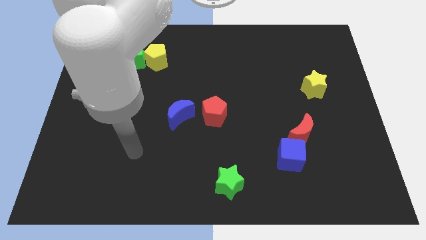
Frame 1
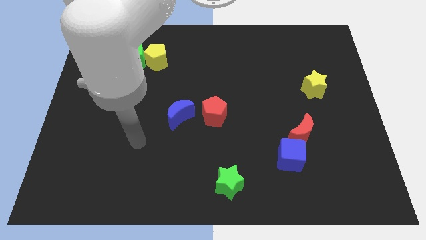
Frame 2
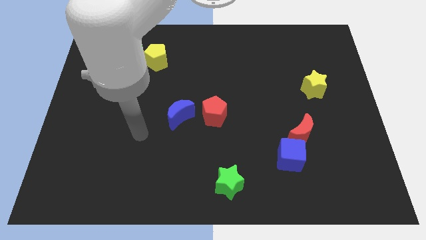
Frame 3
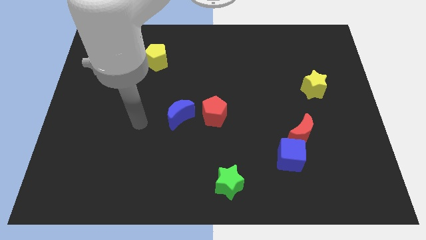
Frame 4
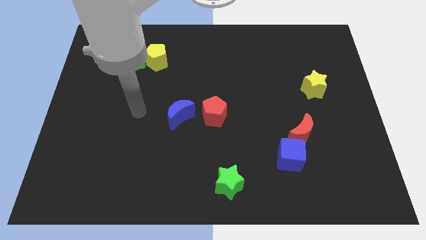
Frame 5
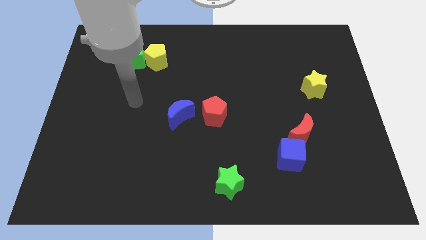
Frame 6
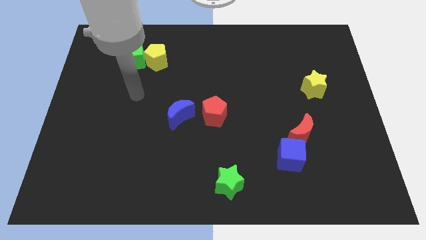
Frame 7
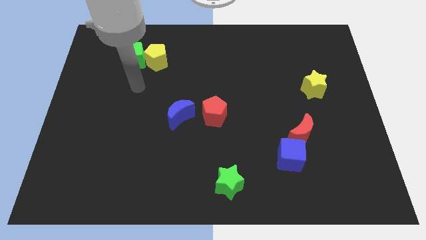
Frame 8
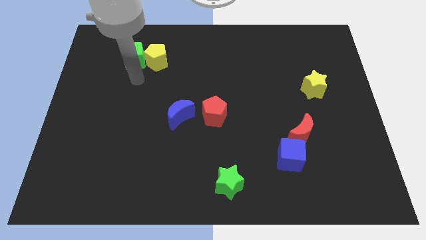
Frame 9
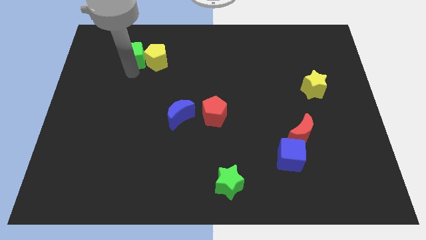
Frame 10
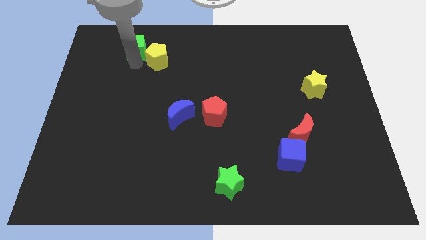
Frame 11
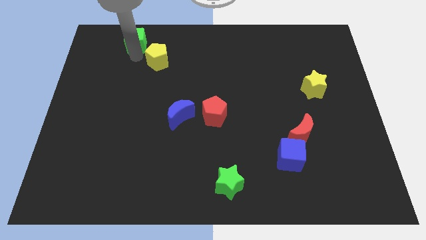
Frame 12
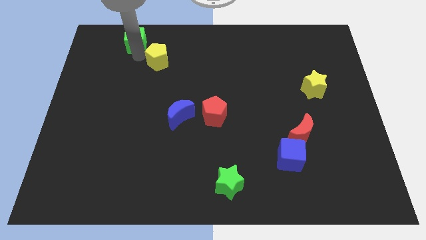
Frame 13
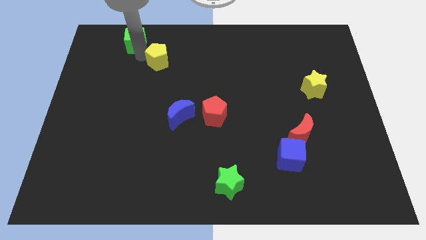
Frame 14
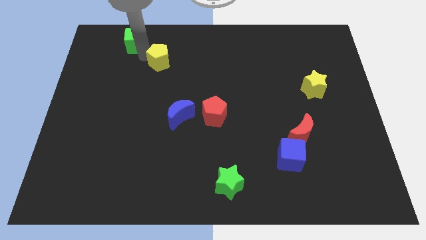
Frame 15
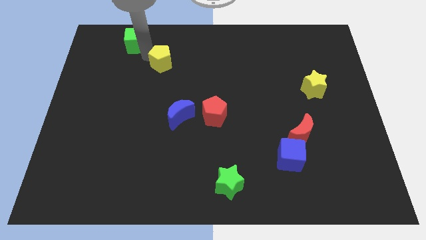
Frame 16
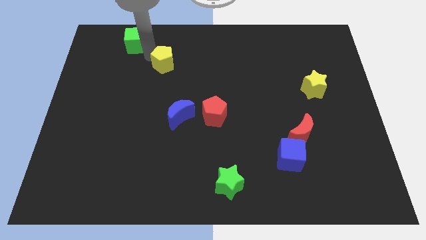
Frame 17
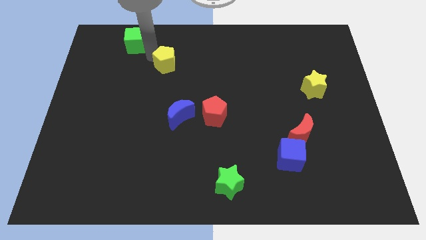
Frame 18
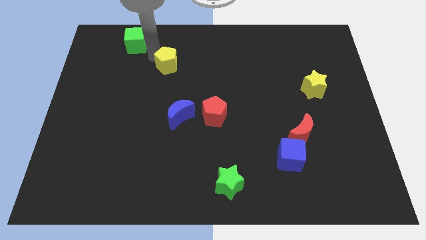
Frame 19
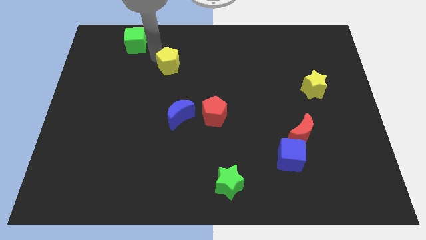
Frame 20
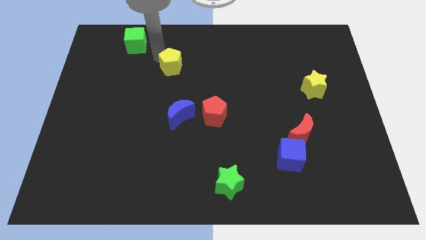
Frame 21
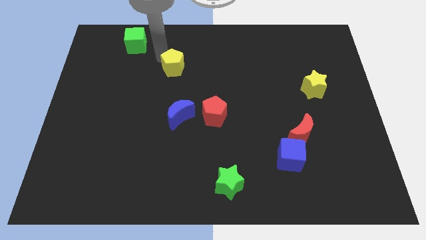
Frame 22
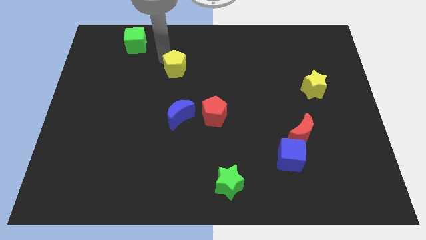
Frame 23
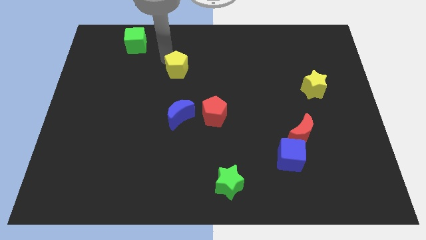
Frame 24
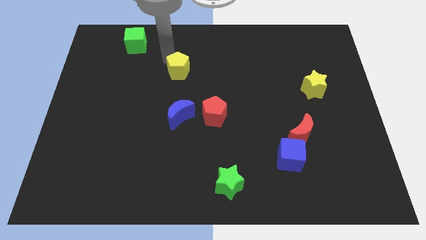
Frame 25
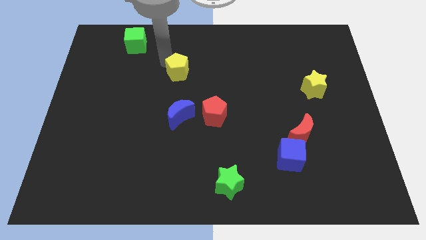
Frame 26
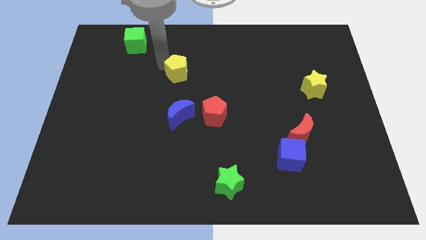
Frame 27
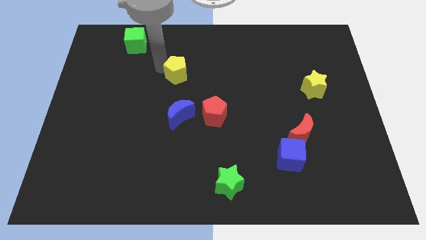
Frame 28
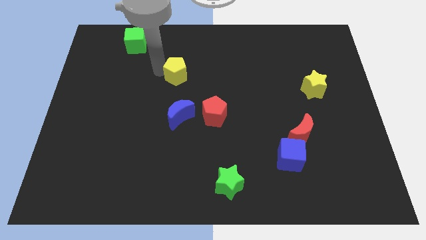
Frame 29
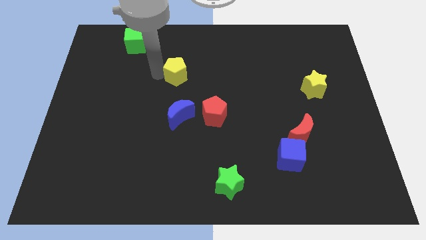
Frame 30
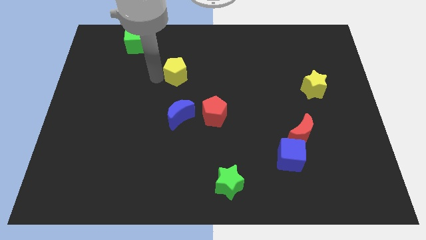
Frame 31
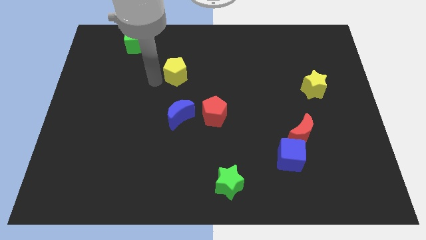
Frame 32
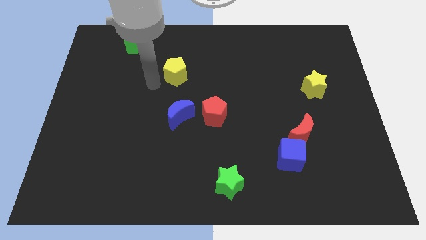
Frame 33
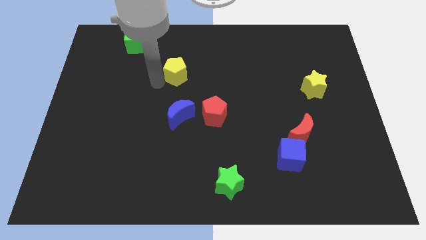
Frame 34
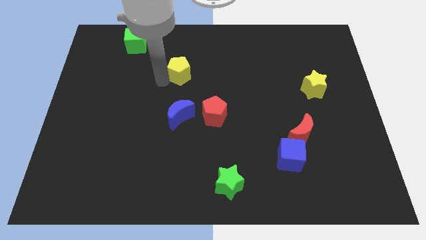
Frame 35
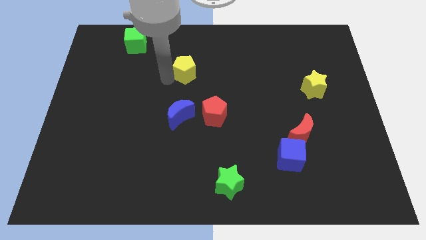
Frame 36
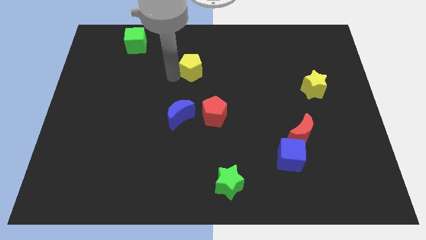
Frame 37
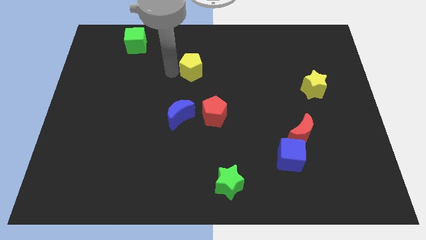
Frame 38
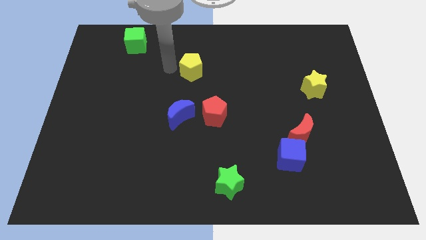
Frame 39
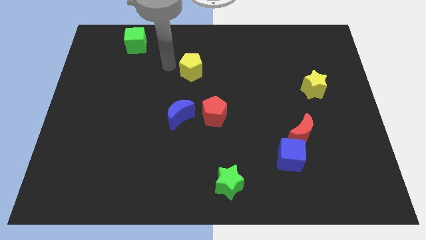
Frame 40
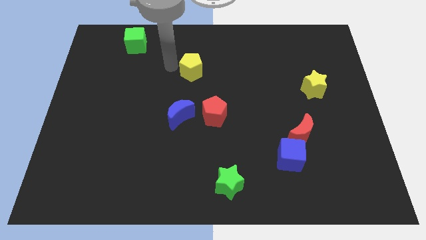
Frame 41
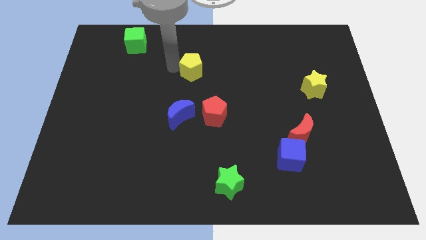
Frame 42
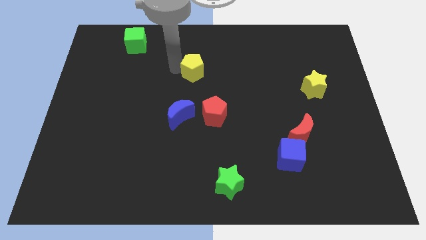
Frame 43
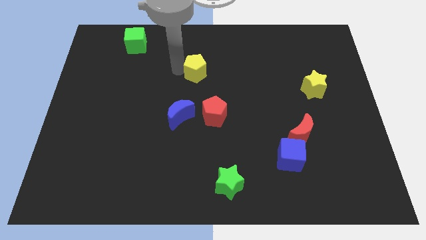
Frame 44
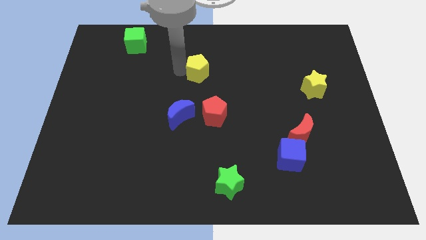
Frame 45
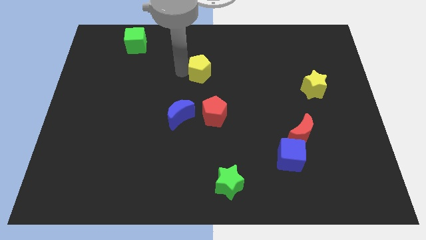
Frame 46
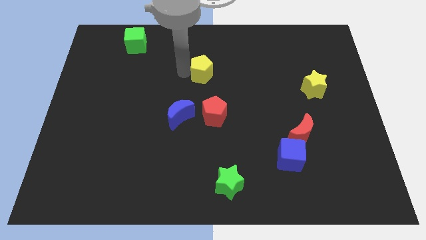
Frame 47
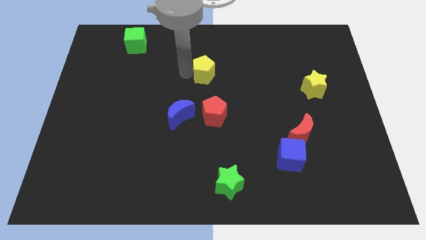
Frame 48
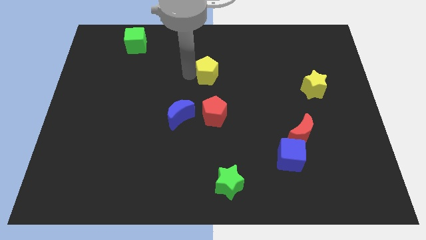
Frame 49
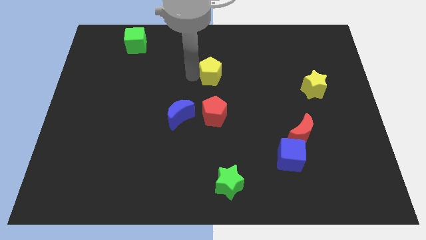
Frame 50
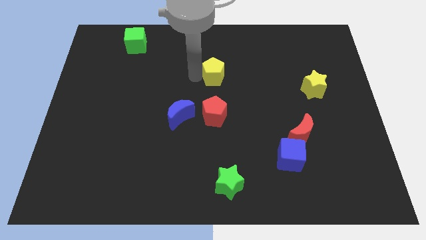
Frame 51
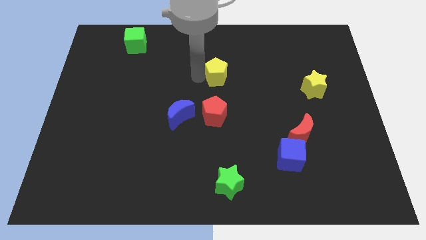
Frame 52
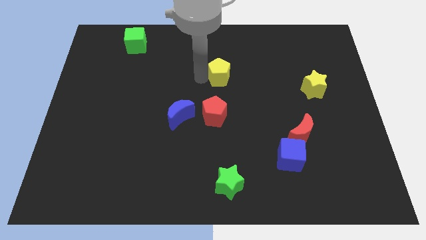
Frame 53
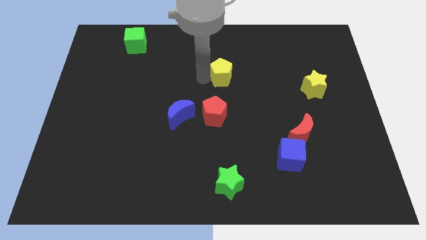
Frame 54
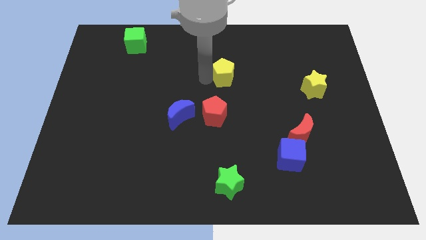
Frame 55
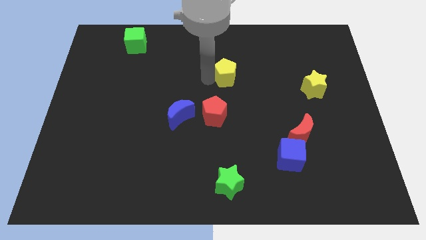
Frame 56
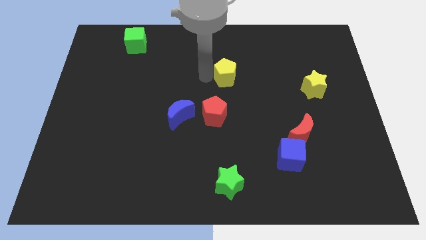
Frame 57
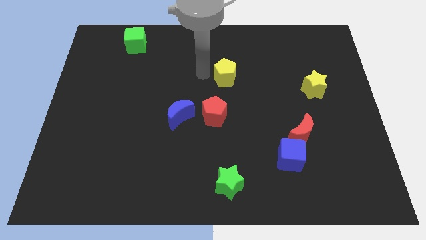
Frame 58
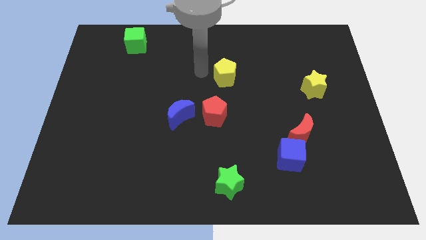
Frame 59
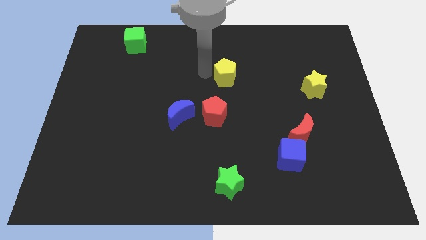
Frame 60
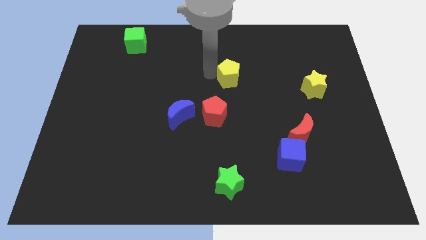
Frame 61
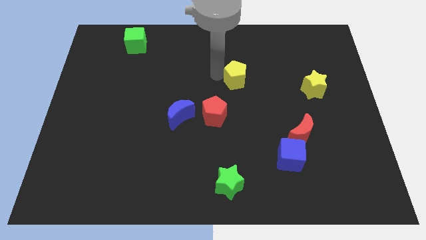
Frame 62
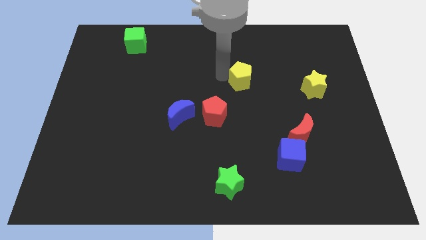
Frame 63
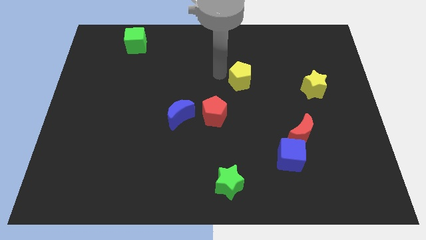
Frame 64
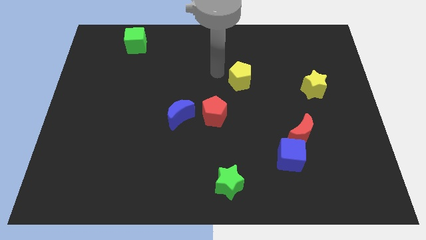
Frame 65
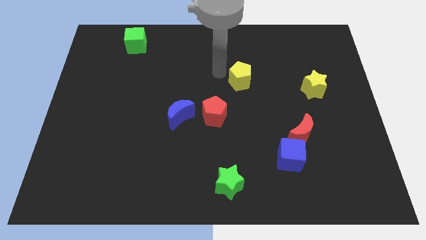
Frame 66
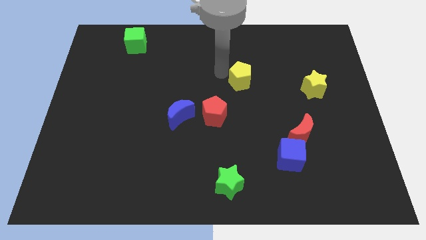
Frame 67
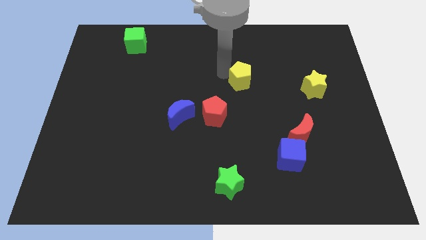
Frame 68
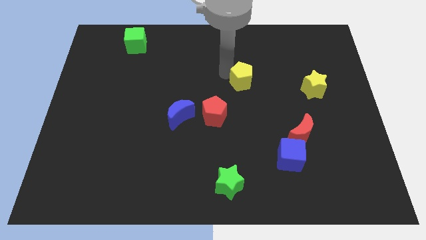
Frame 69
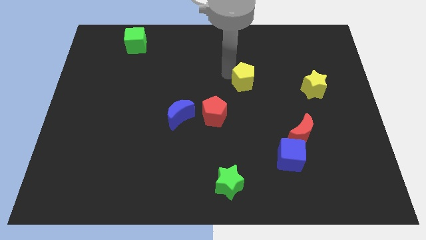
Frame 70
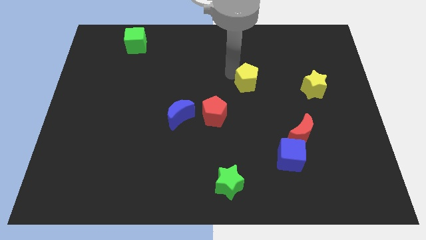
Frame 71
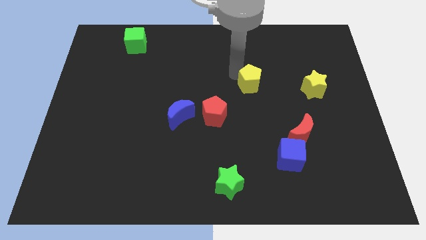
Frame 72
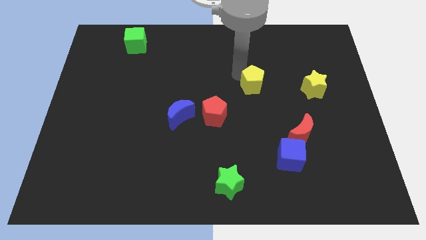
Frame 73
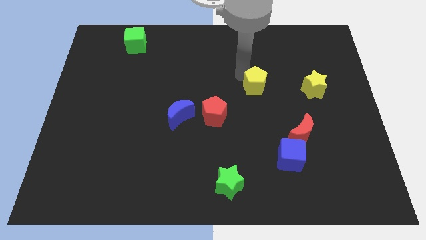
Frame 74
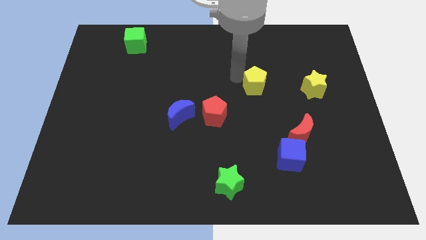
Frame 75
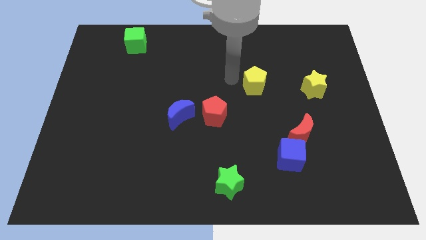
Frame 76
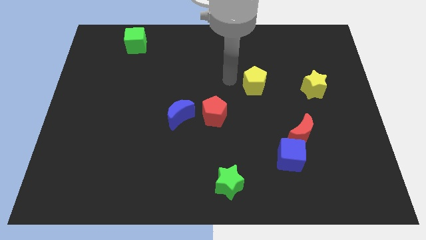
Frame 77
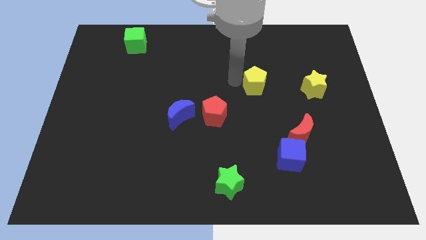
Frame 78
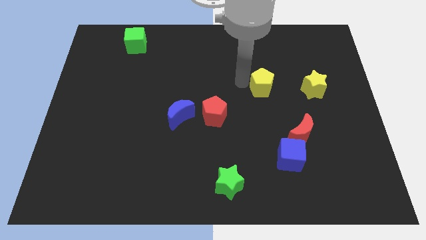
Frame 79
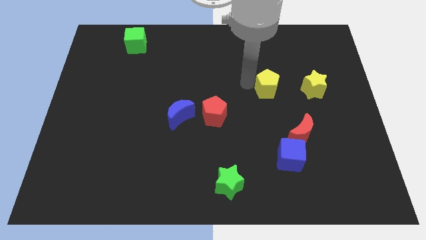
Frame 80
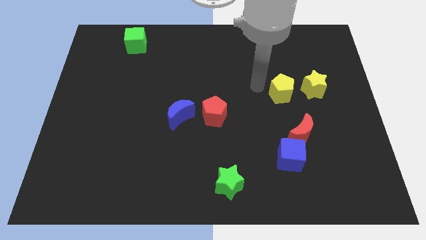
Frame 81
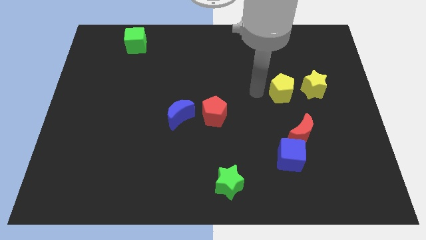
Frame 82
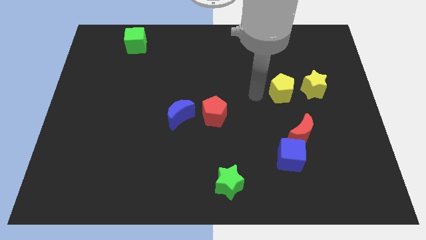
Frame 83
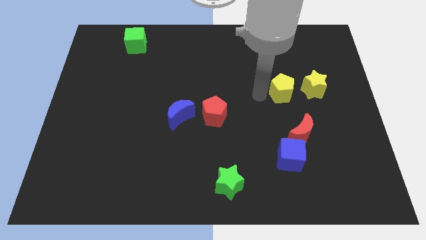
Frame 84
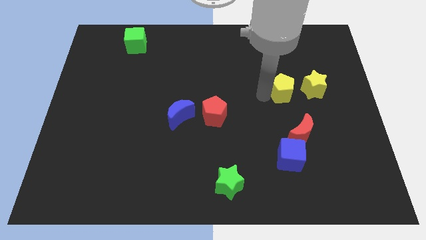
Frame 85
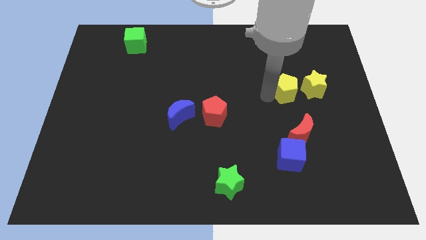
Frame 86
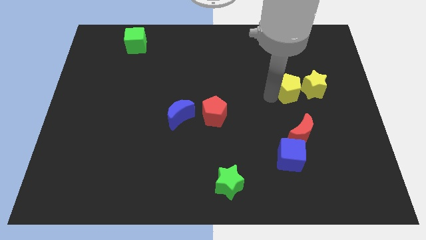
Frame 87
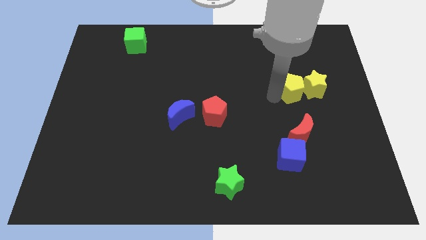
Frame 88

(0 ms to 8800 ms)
slide the yellow pentagon towards the yellow star
